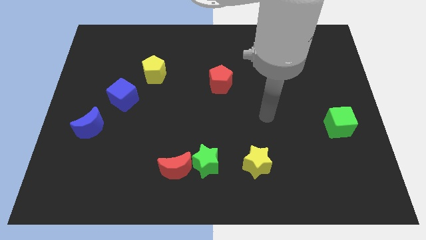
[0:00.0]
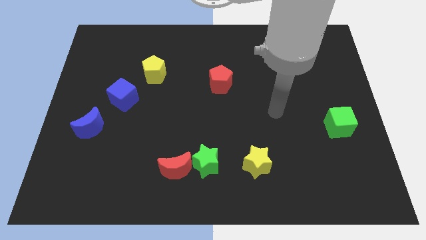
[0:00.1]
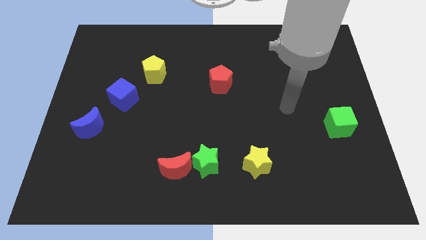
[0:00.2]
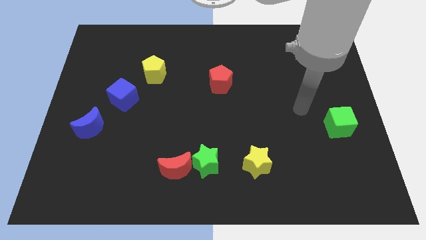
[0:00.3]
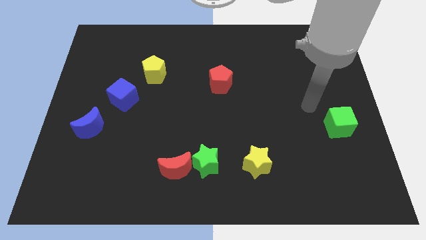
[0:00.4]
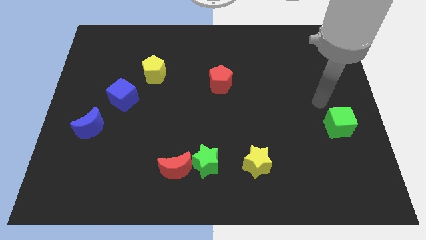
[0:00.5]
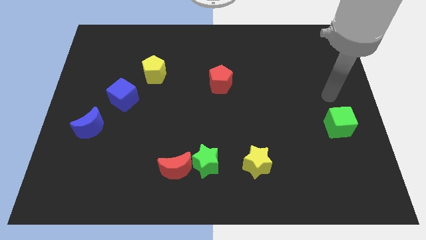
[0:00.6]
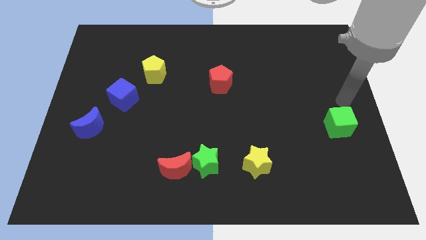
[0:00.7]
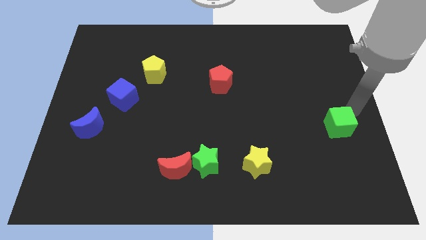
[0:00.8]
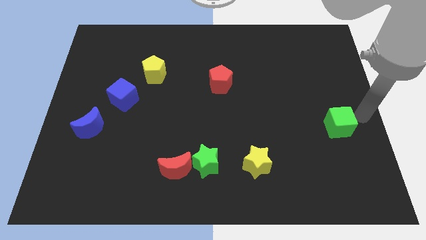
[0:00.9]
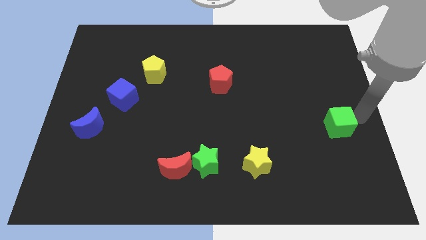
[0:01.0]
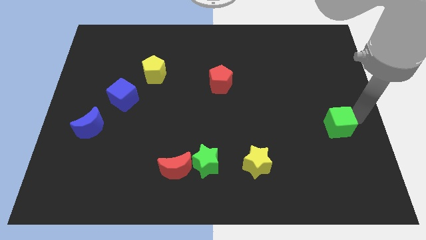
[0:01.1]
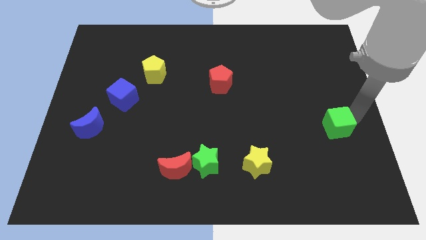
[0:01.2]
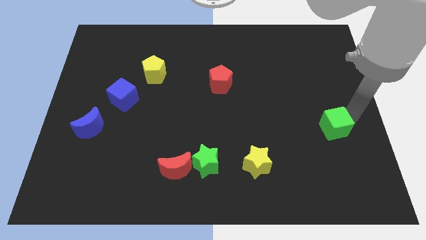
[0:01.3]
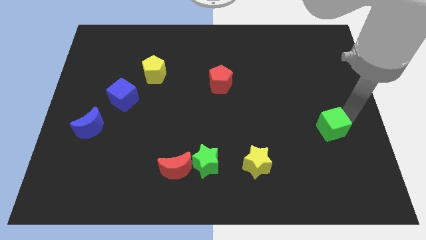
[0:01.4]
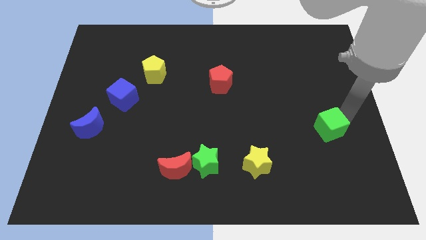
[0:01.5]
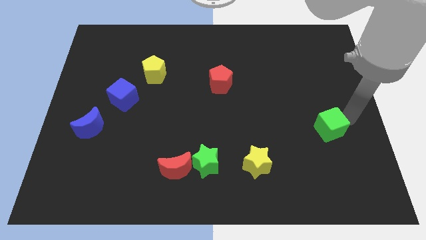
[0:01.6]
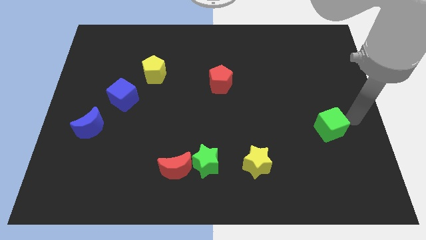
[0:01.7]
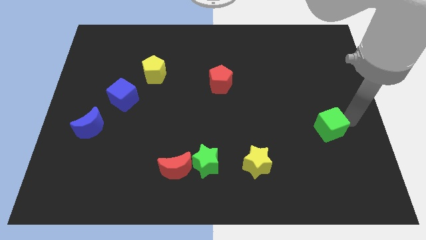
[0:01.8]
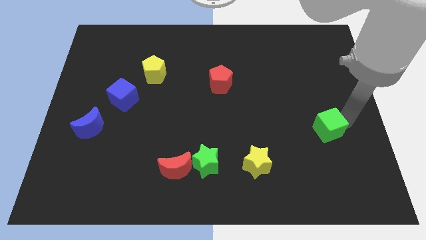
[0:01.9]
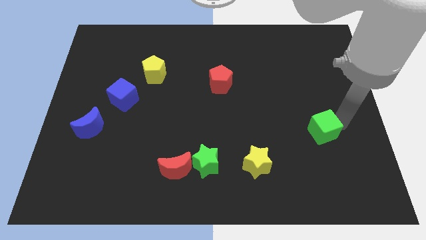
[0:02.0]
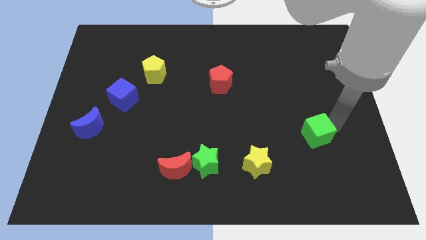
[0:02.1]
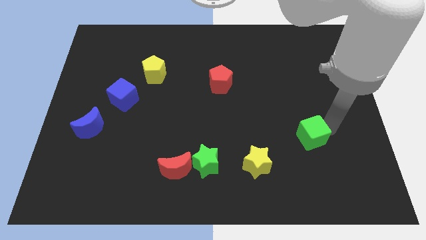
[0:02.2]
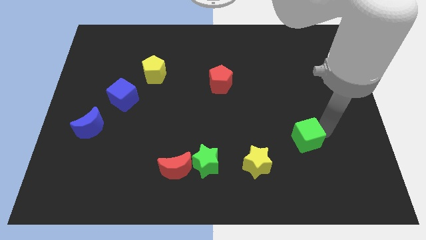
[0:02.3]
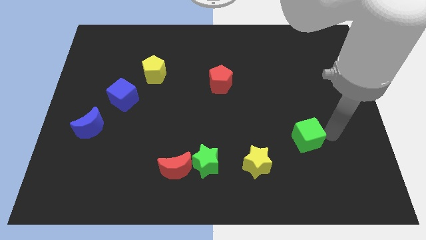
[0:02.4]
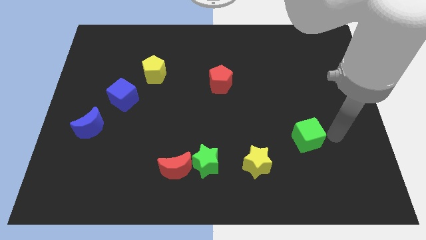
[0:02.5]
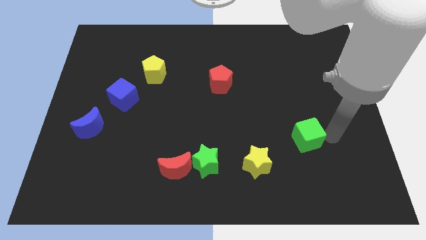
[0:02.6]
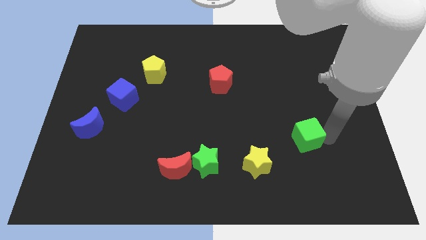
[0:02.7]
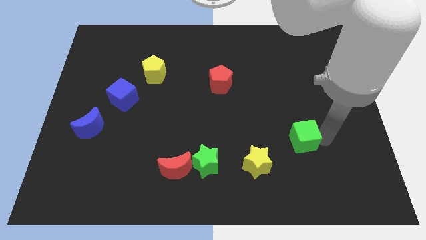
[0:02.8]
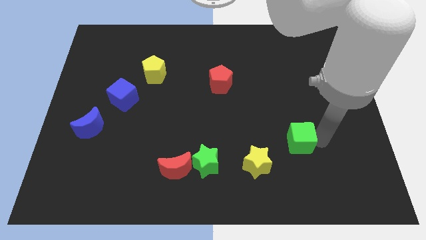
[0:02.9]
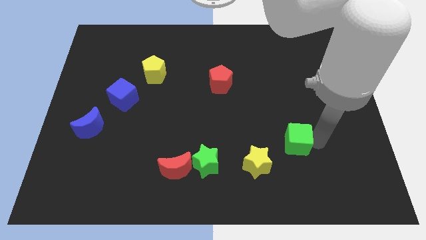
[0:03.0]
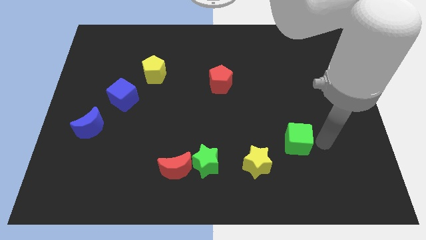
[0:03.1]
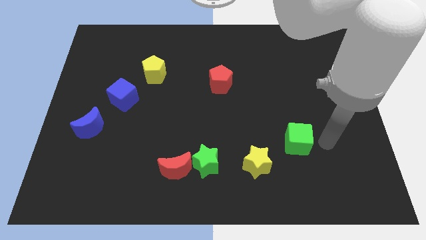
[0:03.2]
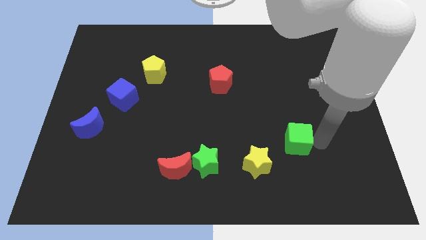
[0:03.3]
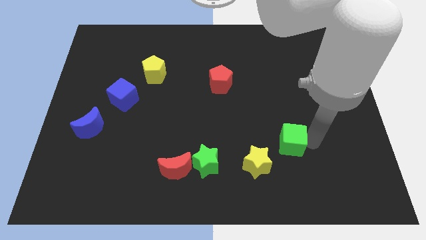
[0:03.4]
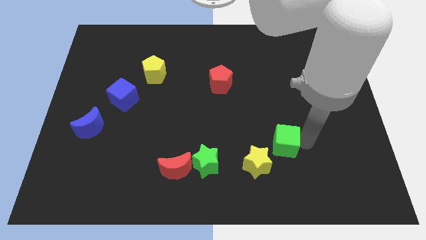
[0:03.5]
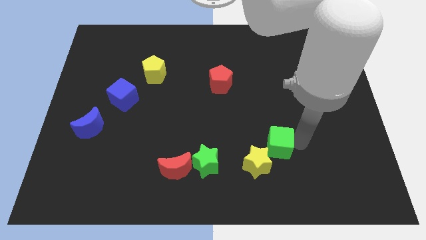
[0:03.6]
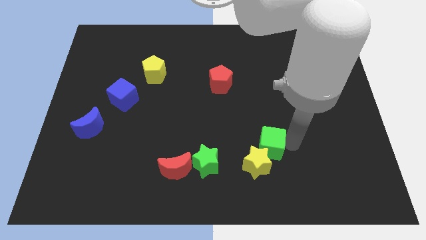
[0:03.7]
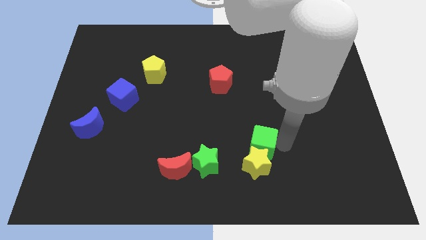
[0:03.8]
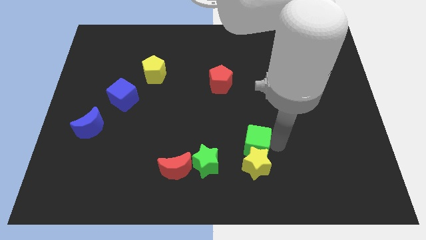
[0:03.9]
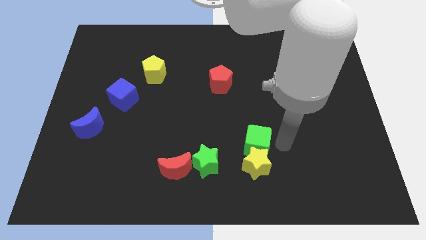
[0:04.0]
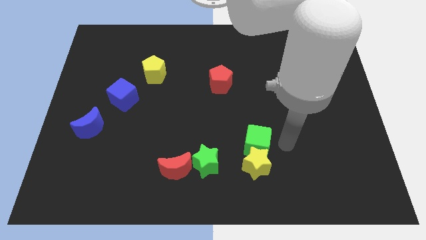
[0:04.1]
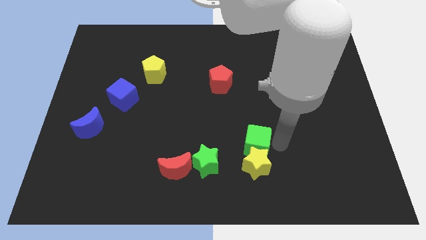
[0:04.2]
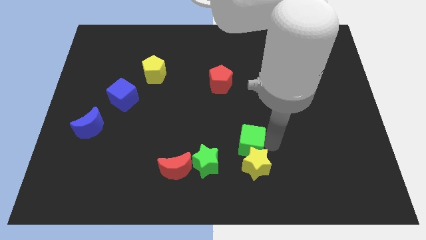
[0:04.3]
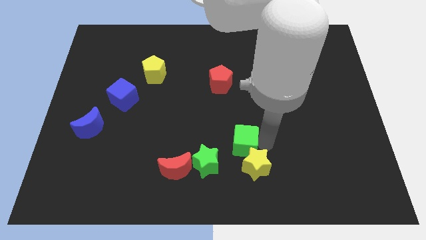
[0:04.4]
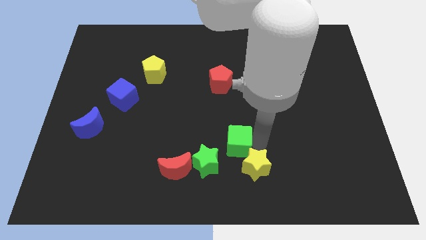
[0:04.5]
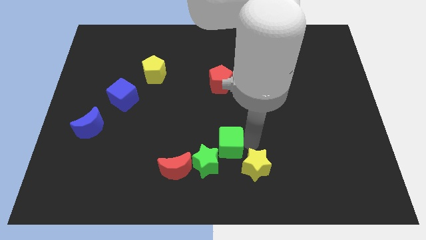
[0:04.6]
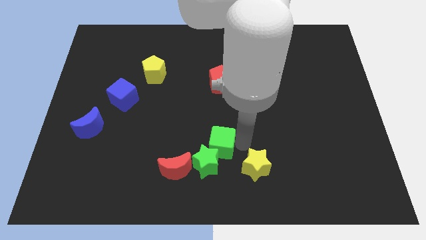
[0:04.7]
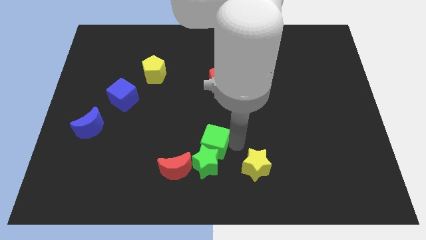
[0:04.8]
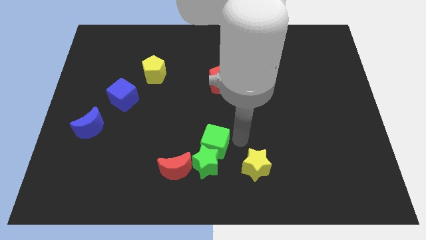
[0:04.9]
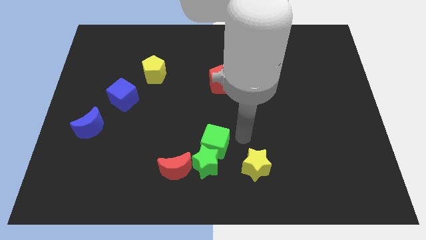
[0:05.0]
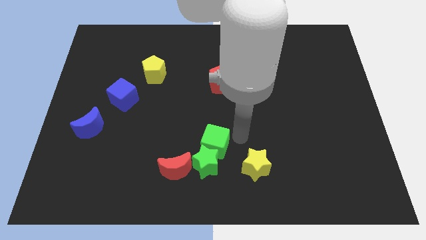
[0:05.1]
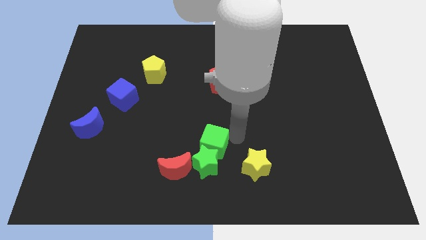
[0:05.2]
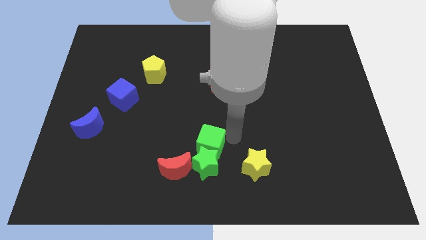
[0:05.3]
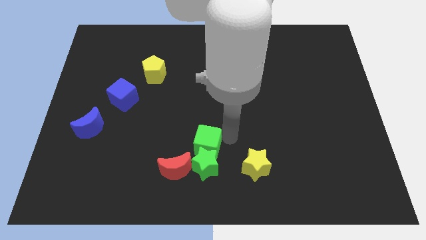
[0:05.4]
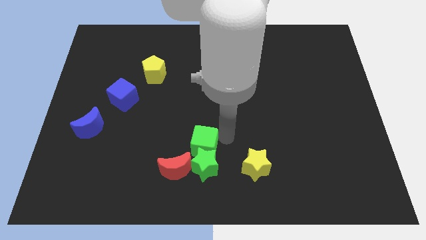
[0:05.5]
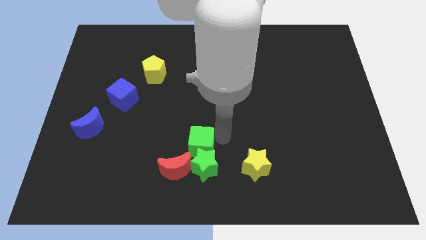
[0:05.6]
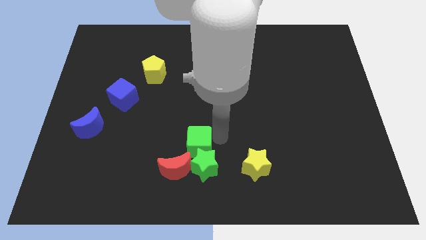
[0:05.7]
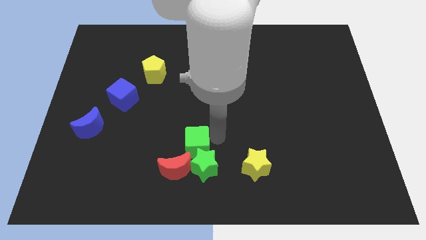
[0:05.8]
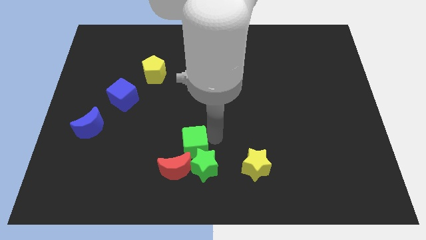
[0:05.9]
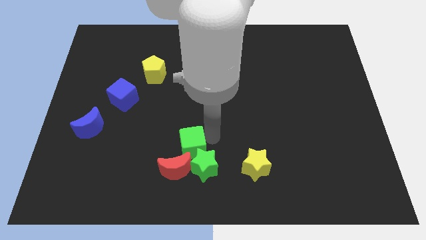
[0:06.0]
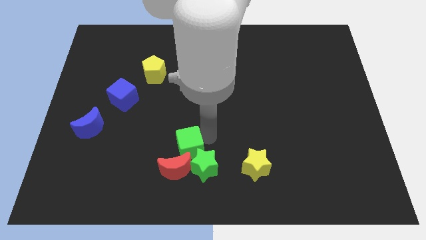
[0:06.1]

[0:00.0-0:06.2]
slide the green cube next to the red moon

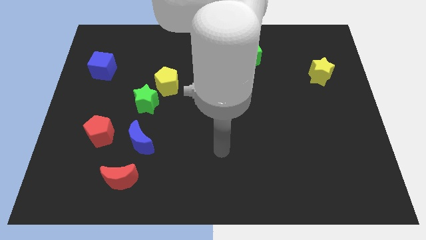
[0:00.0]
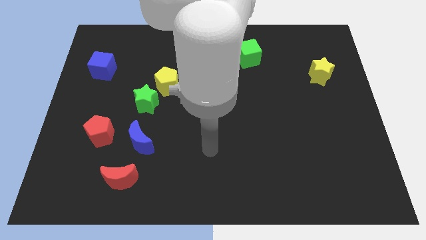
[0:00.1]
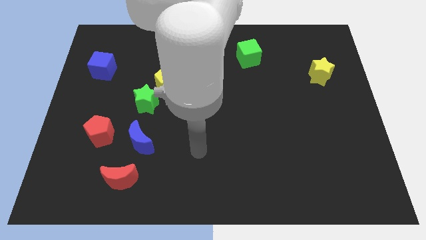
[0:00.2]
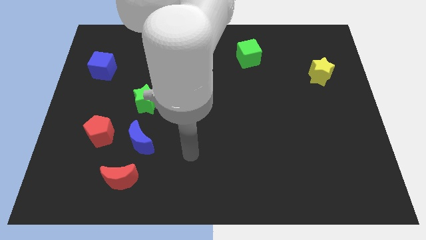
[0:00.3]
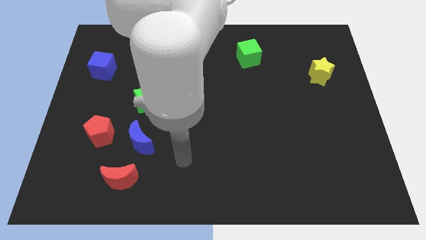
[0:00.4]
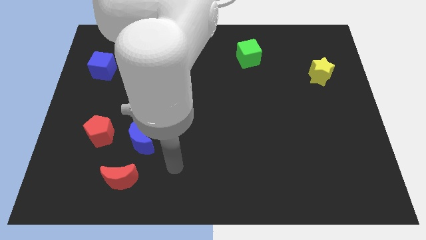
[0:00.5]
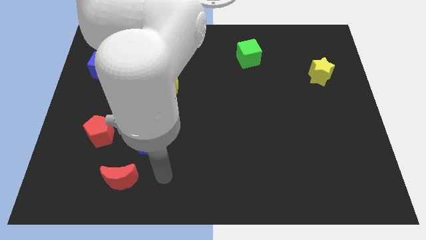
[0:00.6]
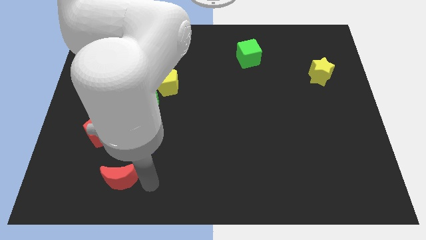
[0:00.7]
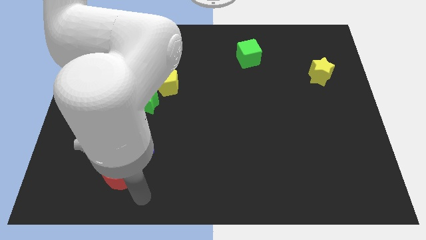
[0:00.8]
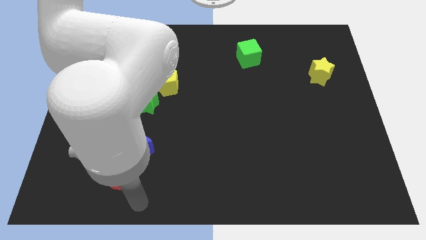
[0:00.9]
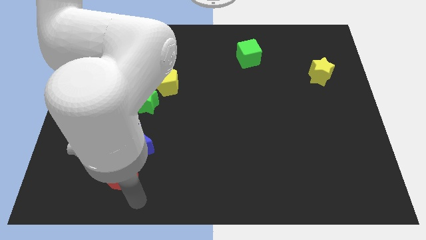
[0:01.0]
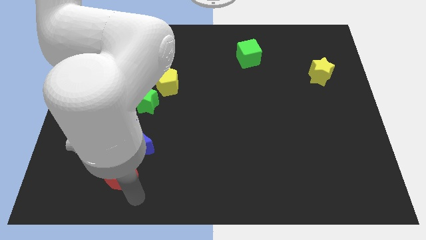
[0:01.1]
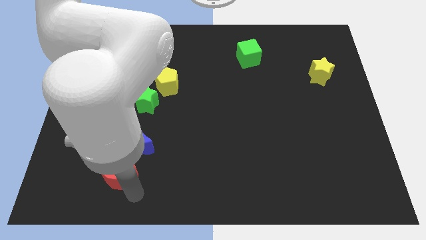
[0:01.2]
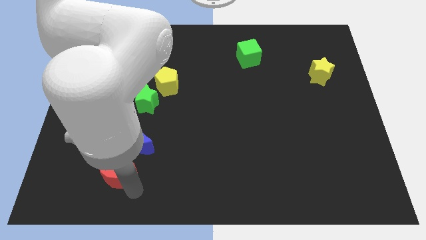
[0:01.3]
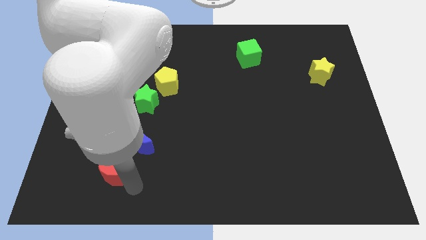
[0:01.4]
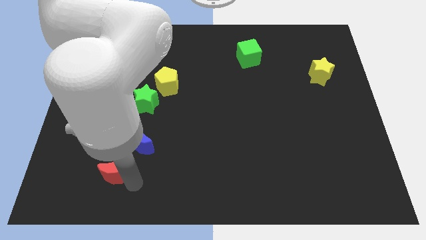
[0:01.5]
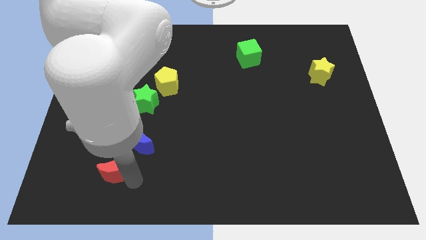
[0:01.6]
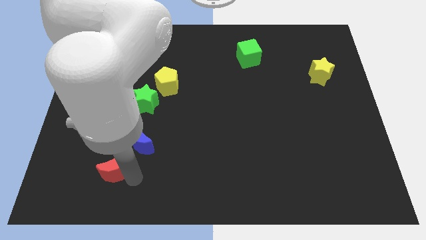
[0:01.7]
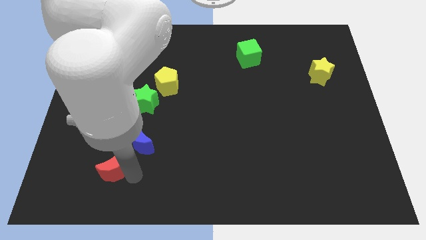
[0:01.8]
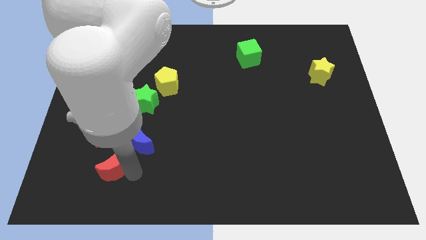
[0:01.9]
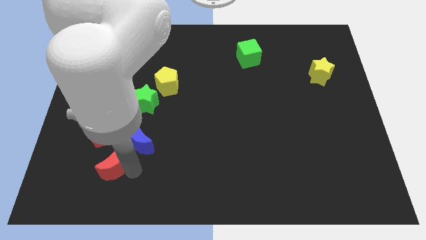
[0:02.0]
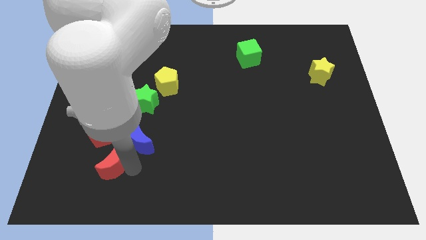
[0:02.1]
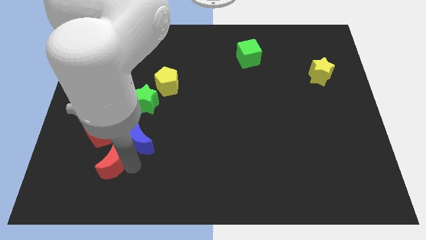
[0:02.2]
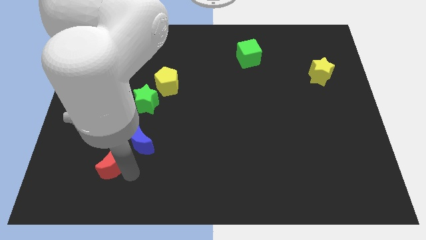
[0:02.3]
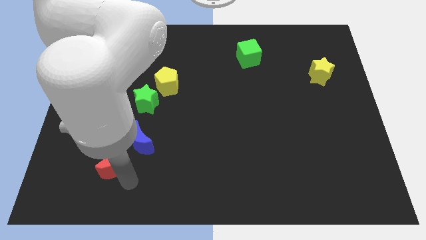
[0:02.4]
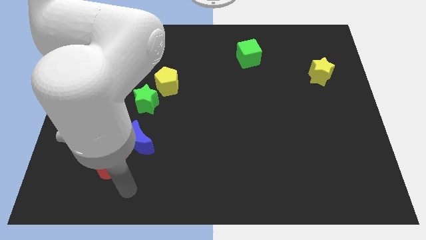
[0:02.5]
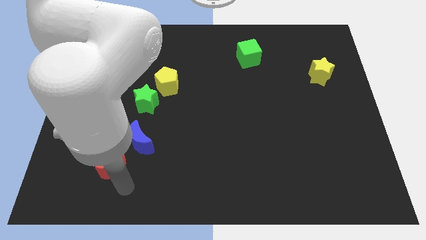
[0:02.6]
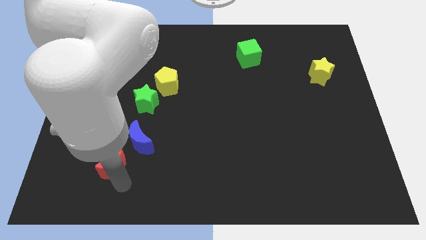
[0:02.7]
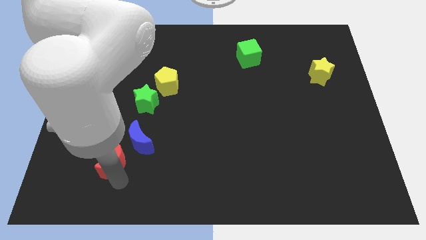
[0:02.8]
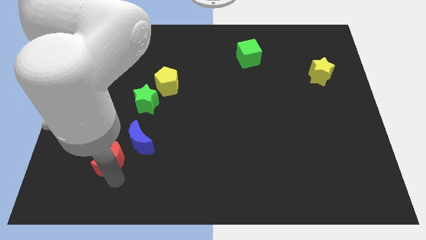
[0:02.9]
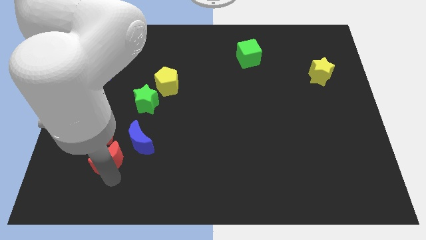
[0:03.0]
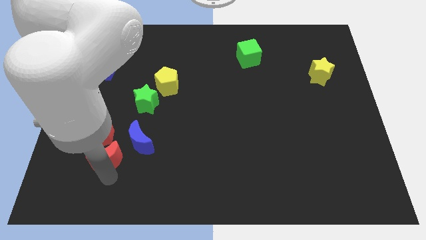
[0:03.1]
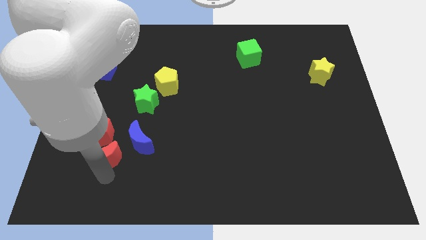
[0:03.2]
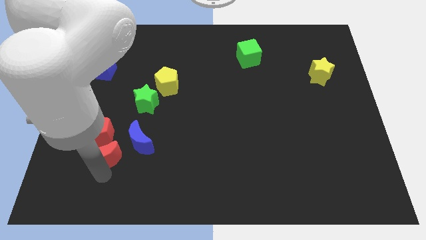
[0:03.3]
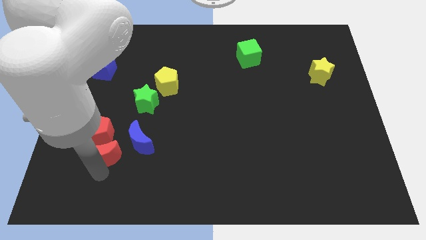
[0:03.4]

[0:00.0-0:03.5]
slide the red moon next to the red pentagon
